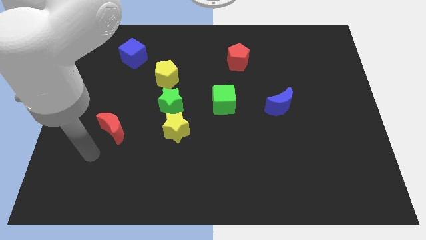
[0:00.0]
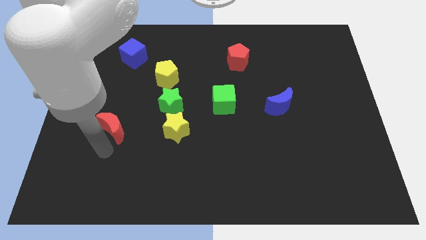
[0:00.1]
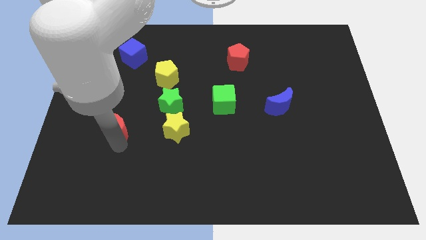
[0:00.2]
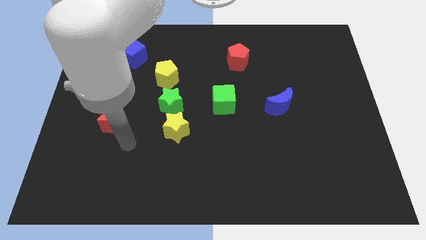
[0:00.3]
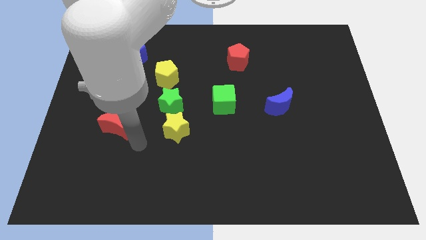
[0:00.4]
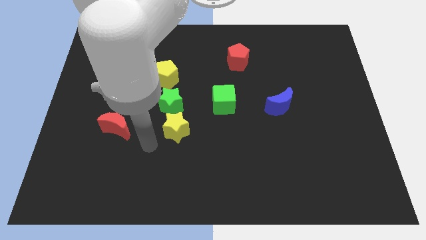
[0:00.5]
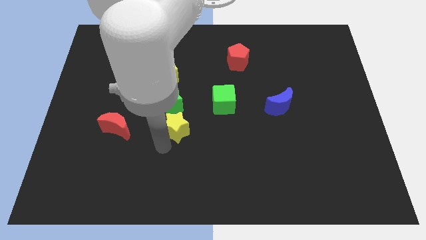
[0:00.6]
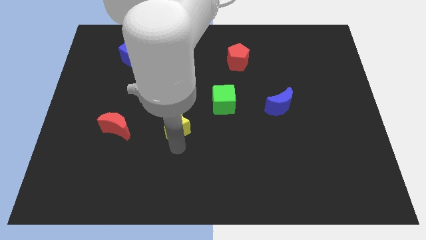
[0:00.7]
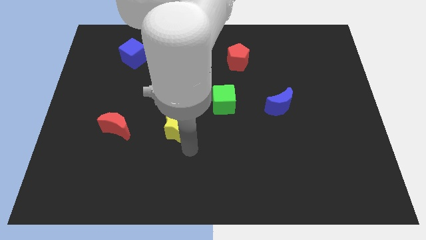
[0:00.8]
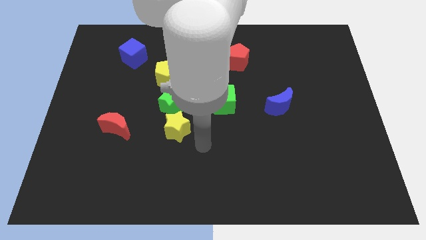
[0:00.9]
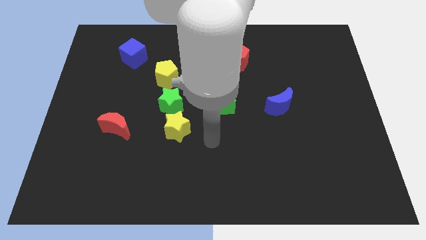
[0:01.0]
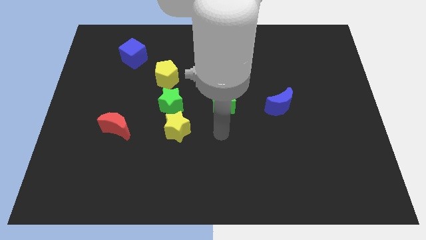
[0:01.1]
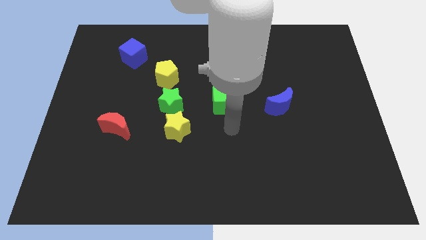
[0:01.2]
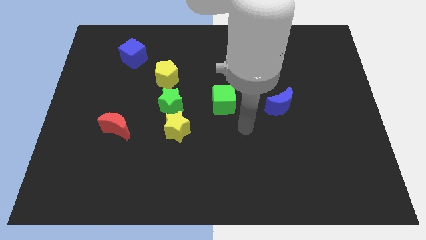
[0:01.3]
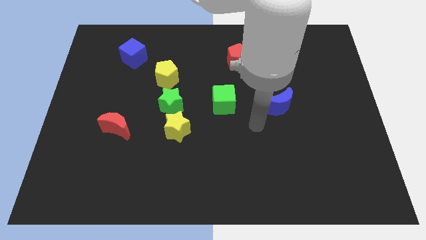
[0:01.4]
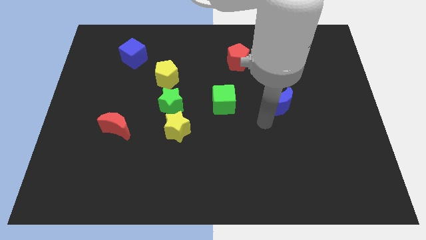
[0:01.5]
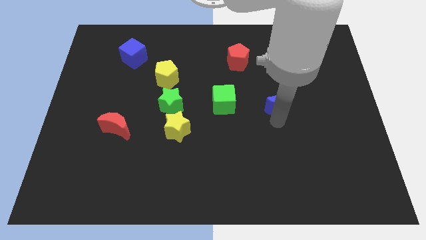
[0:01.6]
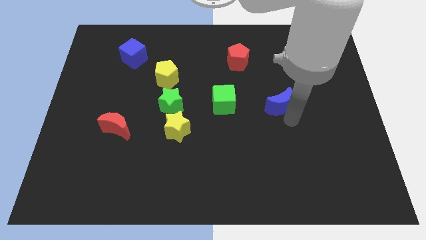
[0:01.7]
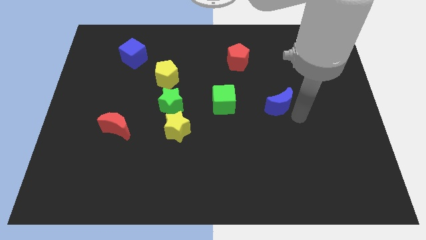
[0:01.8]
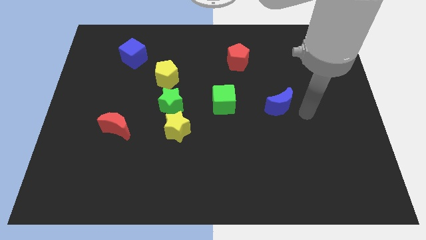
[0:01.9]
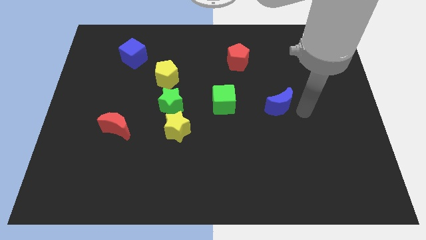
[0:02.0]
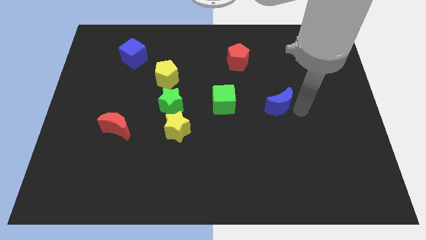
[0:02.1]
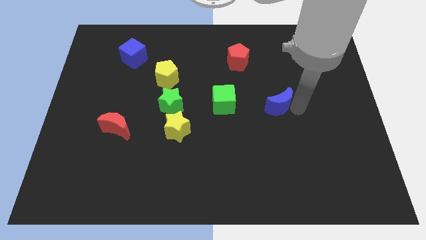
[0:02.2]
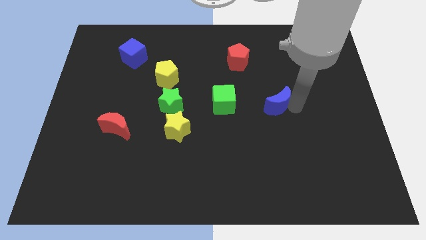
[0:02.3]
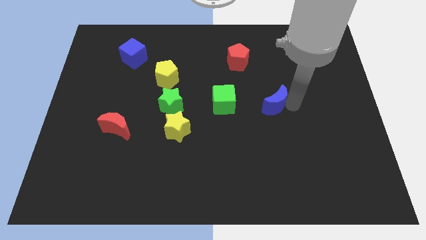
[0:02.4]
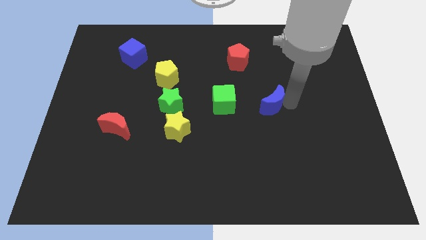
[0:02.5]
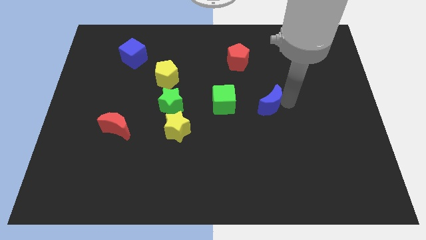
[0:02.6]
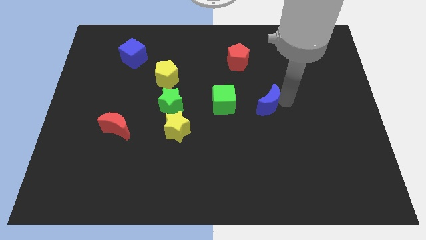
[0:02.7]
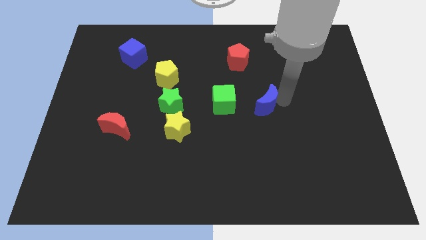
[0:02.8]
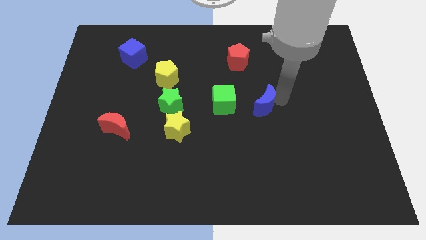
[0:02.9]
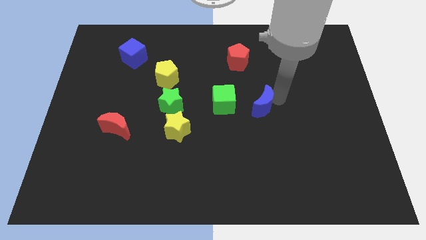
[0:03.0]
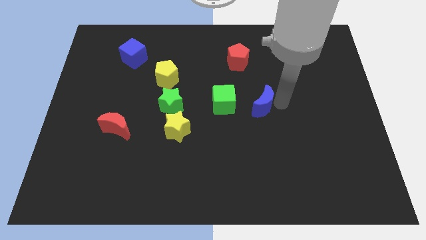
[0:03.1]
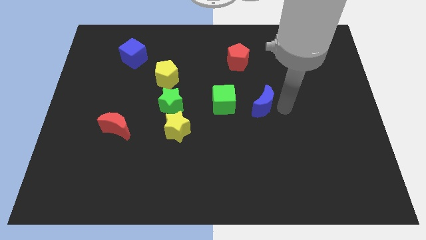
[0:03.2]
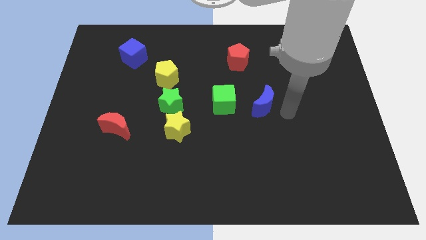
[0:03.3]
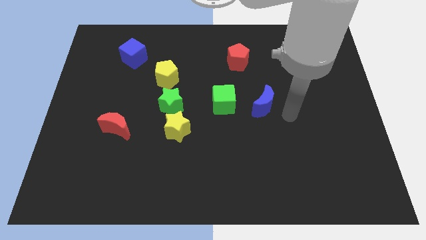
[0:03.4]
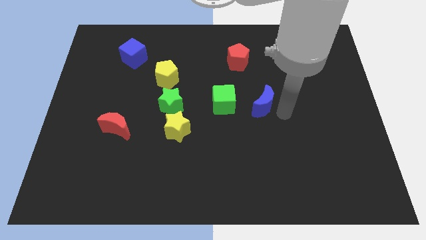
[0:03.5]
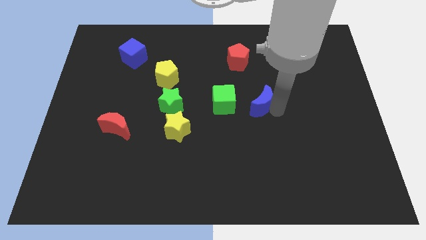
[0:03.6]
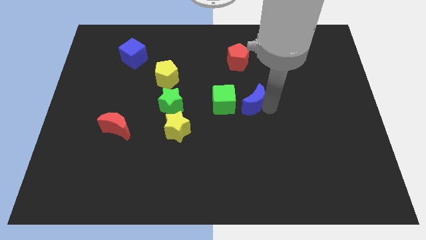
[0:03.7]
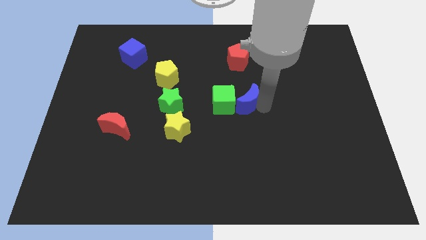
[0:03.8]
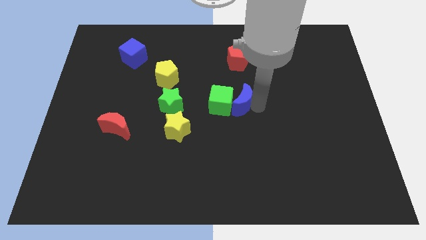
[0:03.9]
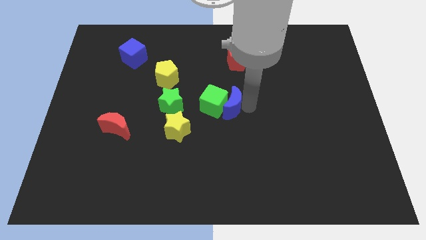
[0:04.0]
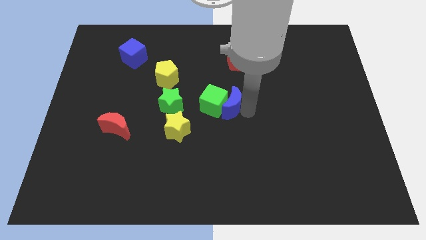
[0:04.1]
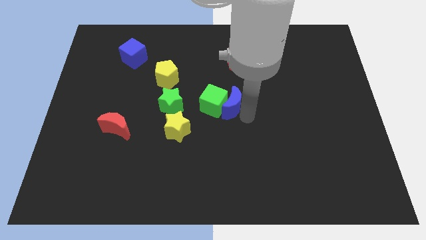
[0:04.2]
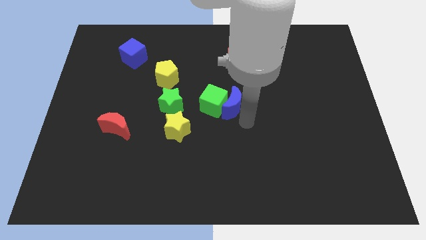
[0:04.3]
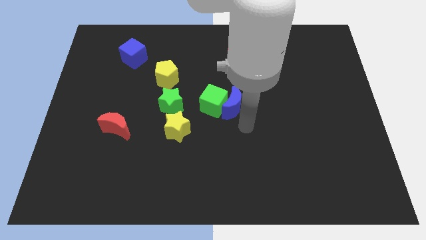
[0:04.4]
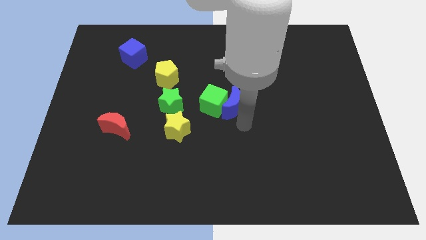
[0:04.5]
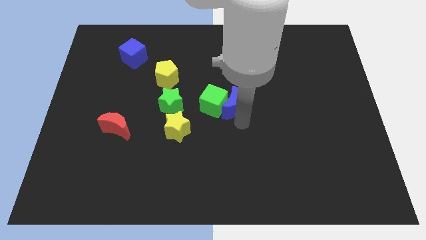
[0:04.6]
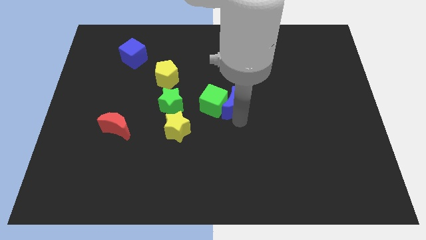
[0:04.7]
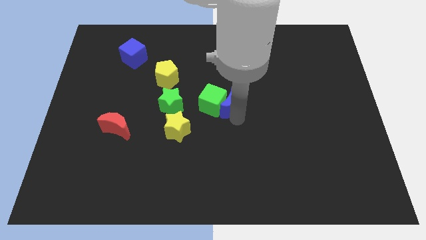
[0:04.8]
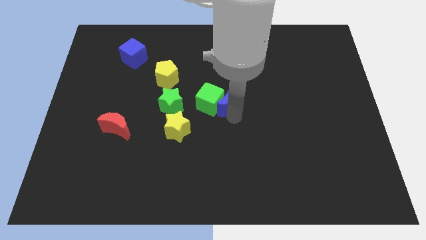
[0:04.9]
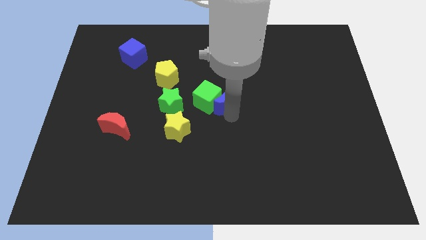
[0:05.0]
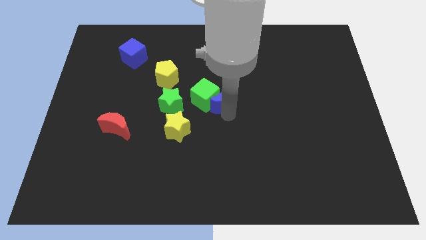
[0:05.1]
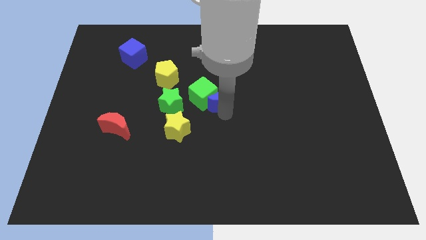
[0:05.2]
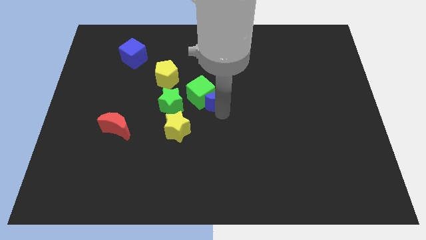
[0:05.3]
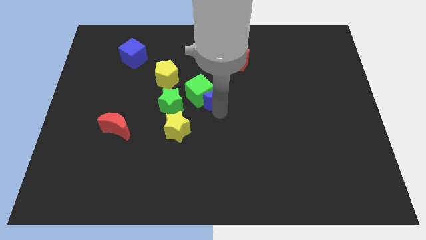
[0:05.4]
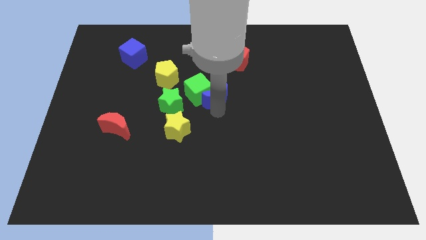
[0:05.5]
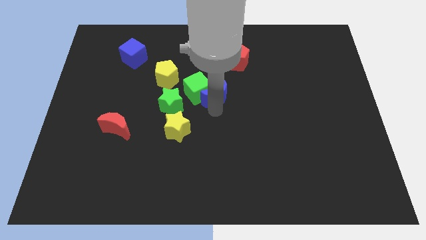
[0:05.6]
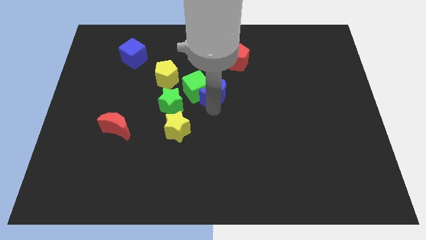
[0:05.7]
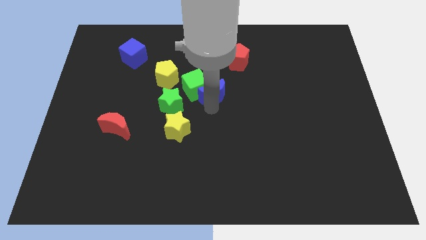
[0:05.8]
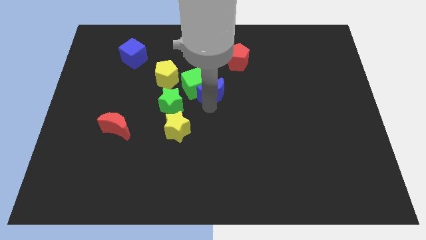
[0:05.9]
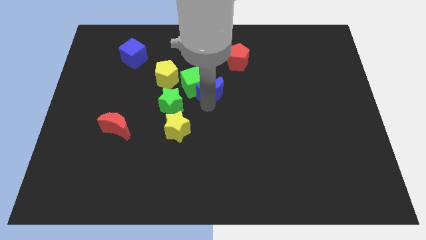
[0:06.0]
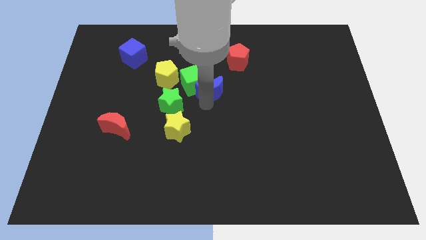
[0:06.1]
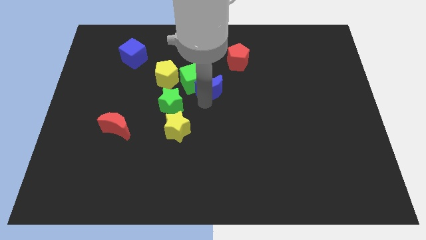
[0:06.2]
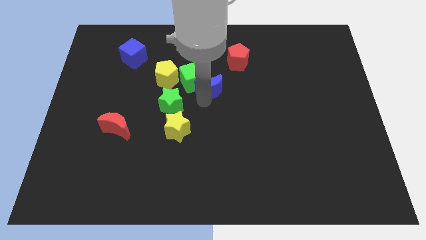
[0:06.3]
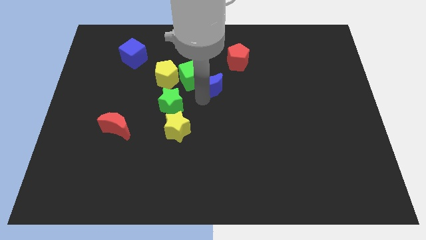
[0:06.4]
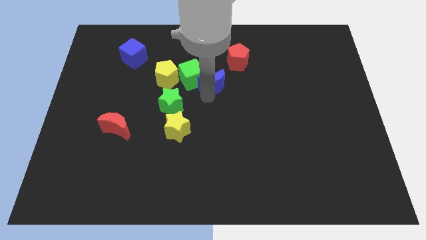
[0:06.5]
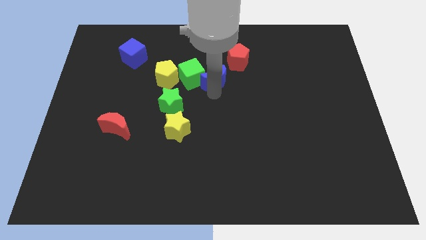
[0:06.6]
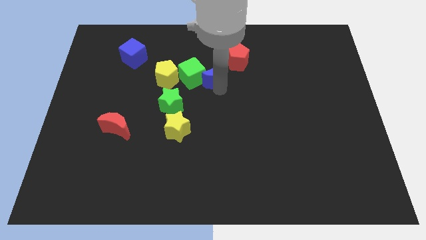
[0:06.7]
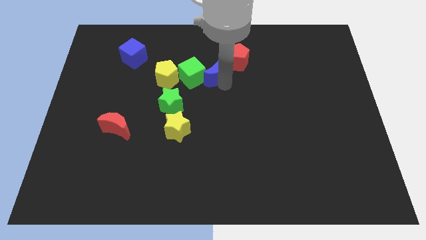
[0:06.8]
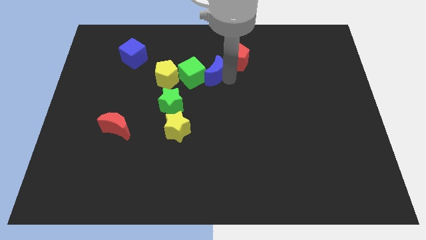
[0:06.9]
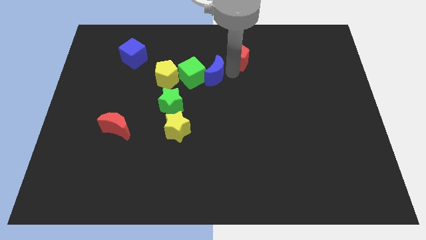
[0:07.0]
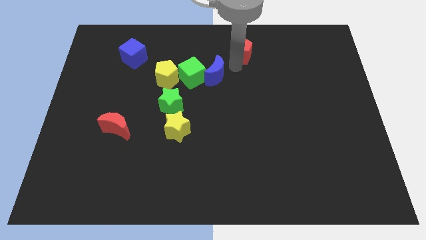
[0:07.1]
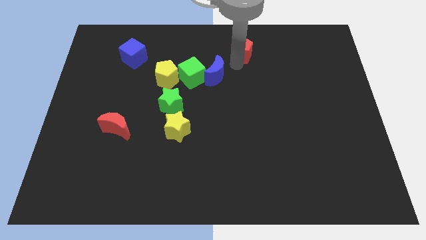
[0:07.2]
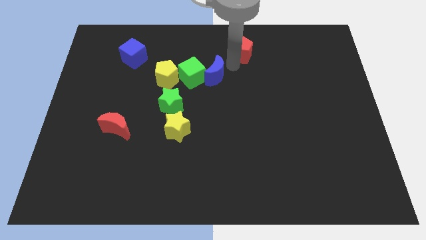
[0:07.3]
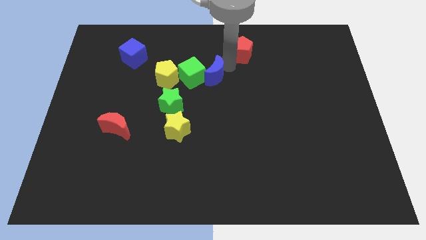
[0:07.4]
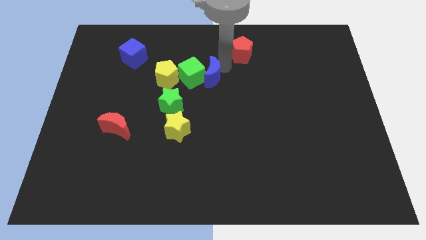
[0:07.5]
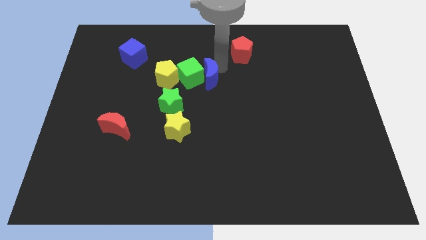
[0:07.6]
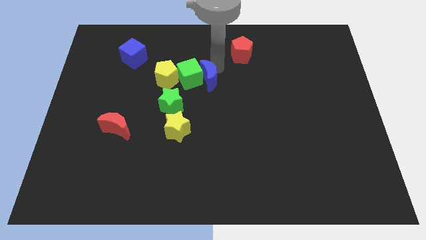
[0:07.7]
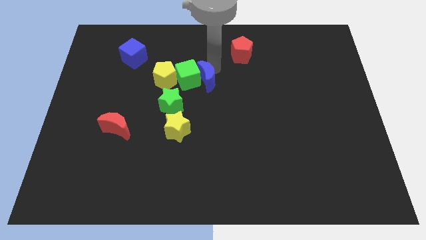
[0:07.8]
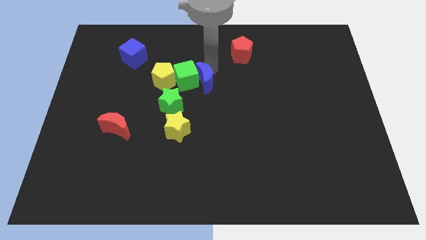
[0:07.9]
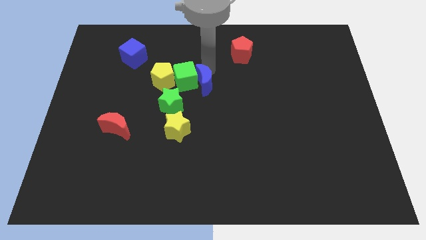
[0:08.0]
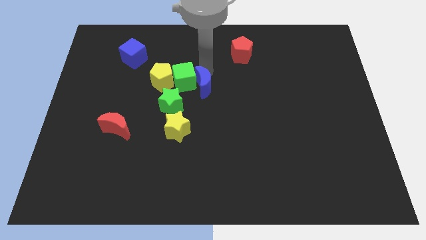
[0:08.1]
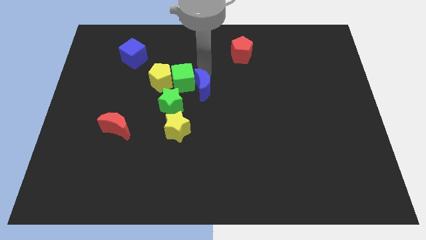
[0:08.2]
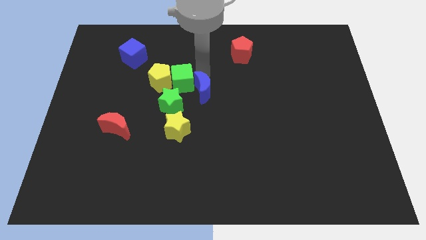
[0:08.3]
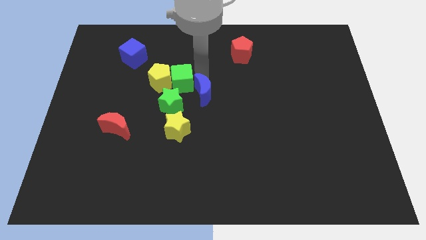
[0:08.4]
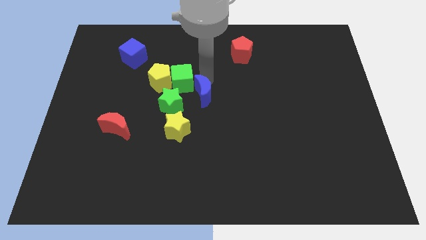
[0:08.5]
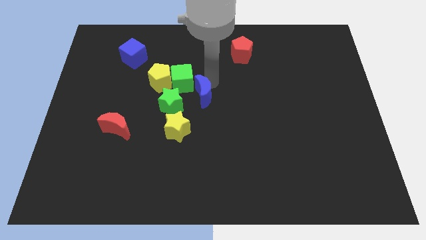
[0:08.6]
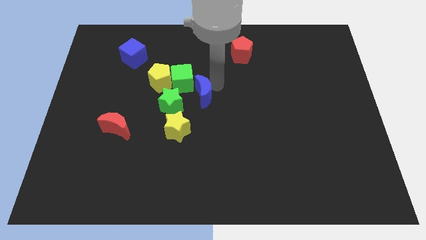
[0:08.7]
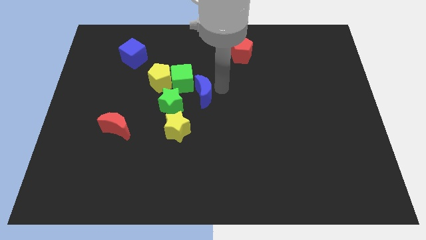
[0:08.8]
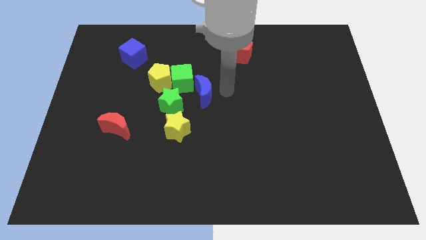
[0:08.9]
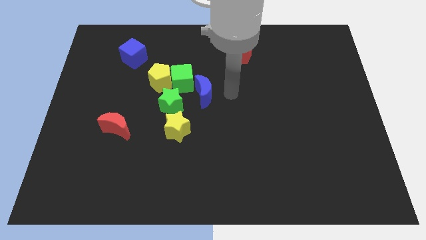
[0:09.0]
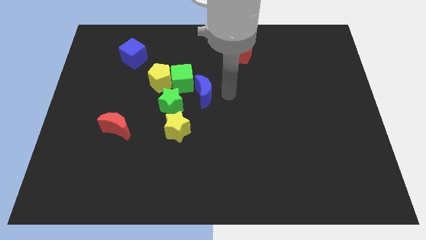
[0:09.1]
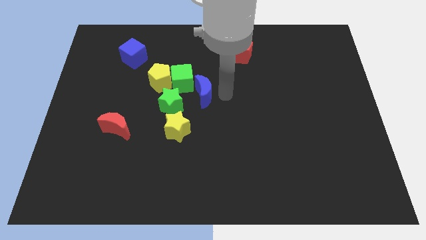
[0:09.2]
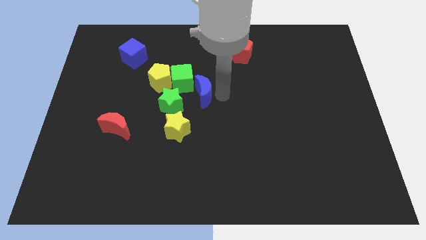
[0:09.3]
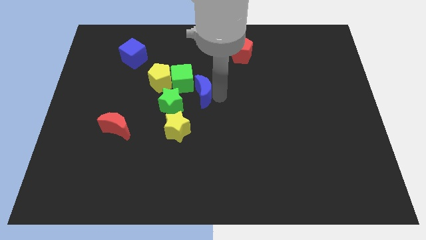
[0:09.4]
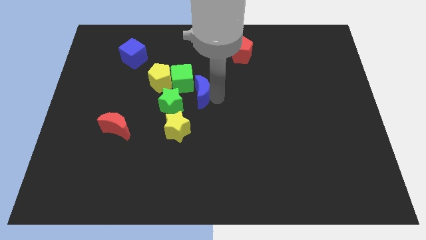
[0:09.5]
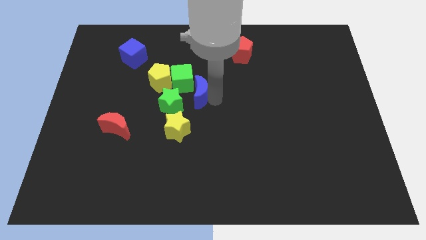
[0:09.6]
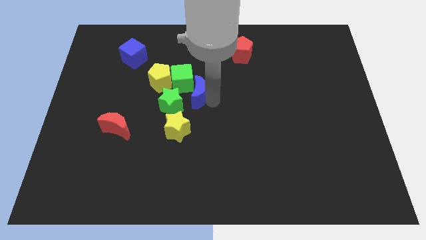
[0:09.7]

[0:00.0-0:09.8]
slide the blue moon to the top side of the yellow star
